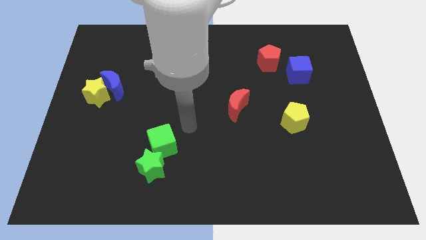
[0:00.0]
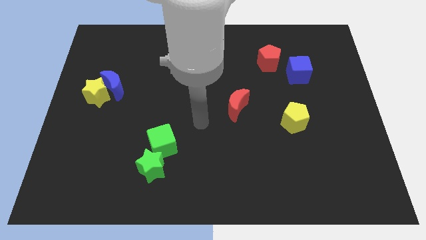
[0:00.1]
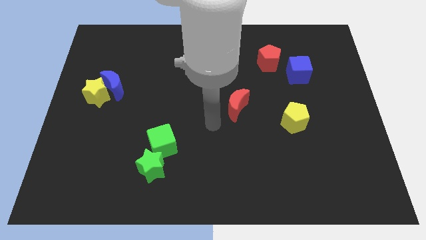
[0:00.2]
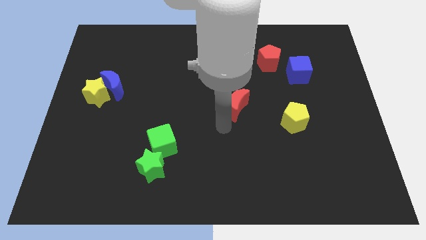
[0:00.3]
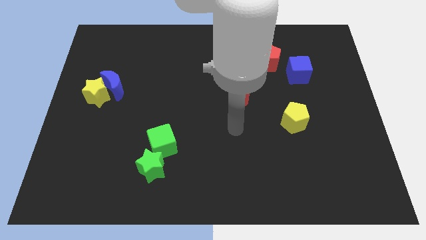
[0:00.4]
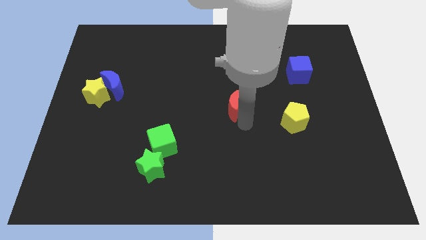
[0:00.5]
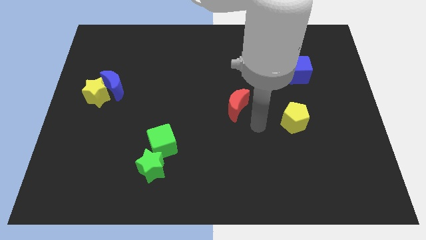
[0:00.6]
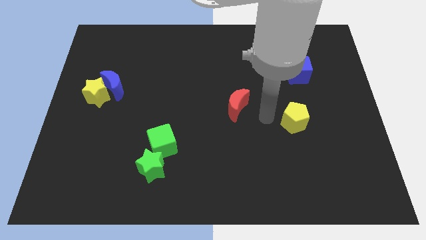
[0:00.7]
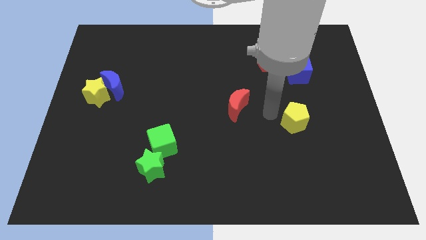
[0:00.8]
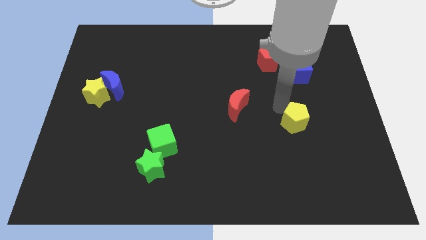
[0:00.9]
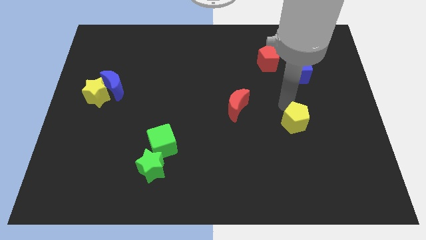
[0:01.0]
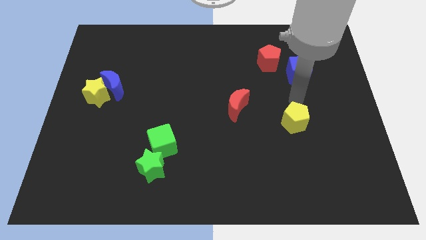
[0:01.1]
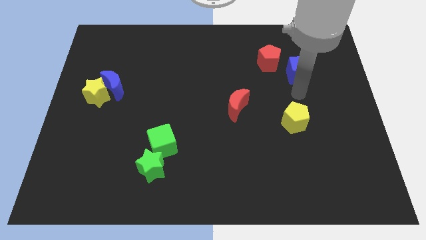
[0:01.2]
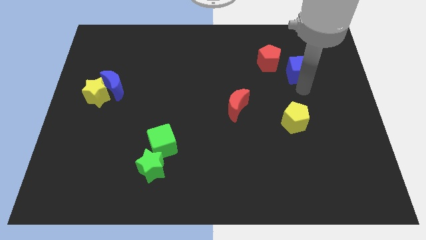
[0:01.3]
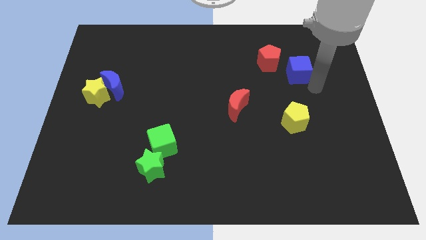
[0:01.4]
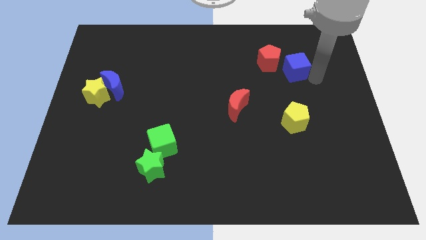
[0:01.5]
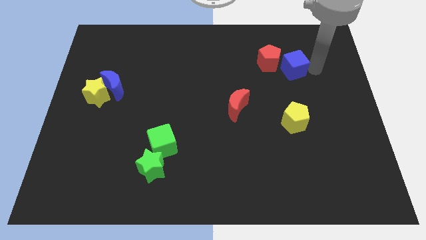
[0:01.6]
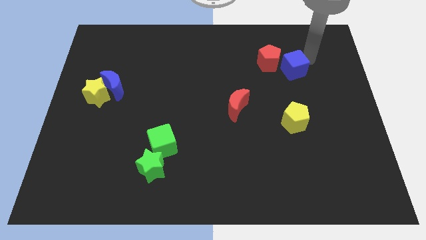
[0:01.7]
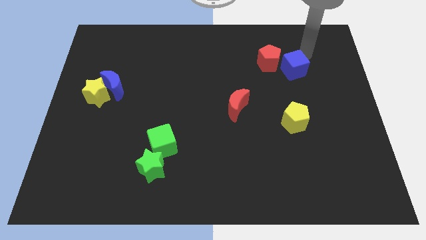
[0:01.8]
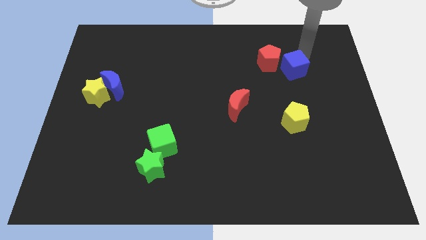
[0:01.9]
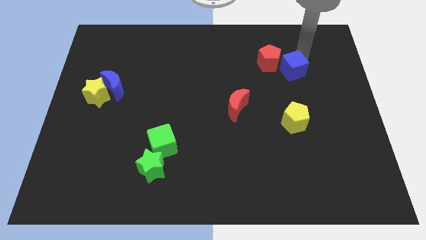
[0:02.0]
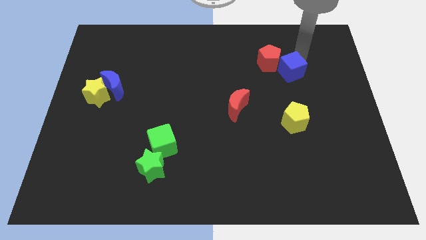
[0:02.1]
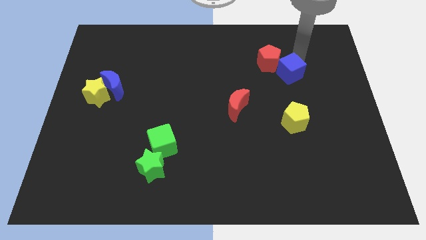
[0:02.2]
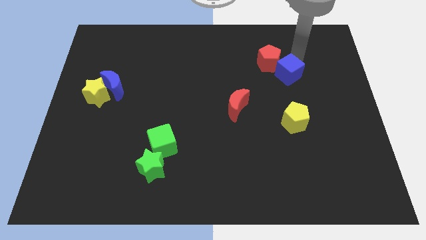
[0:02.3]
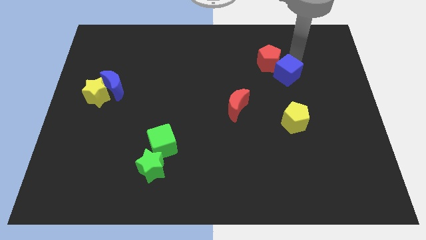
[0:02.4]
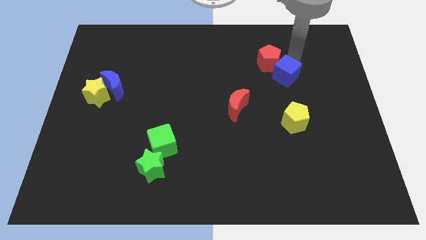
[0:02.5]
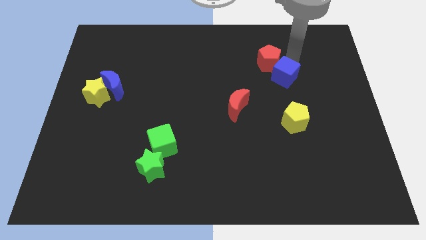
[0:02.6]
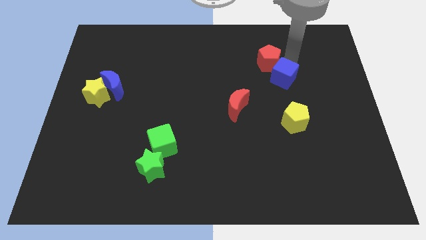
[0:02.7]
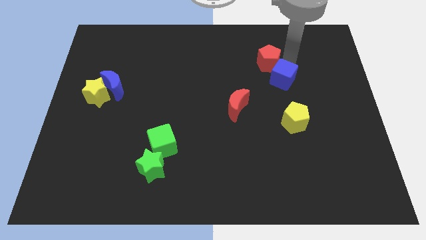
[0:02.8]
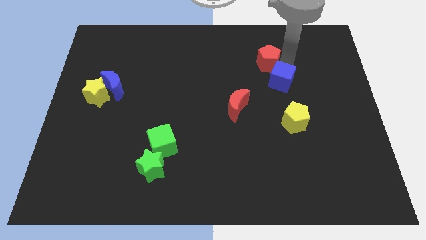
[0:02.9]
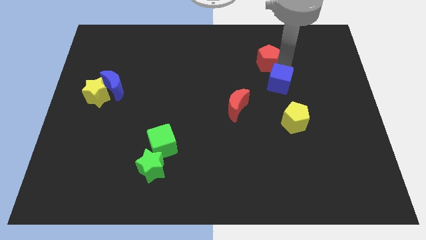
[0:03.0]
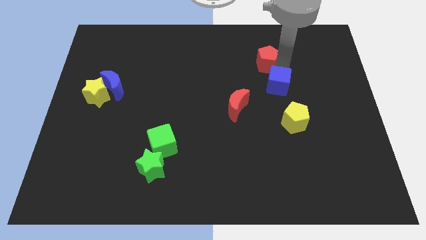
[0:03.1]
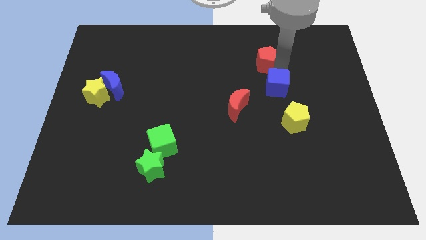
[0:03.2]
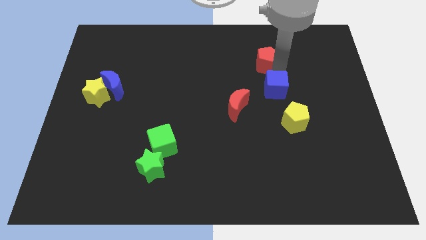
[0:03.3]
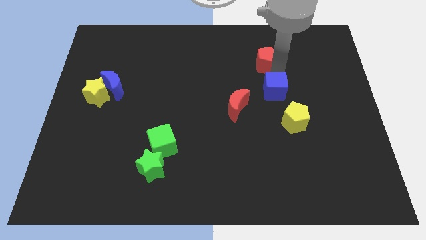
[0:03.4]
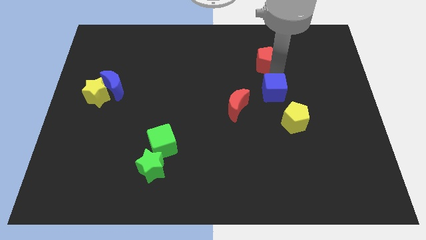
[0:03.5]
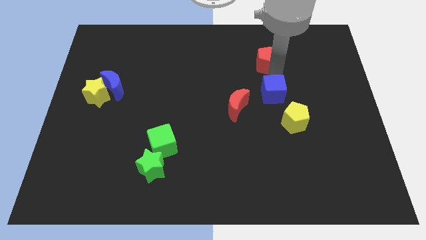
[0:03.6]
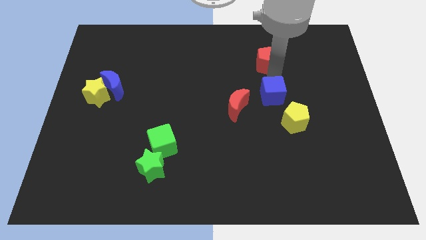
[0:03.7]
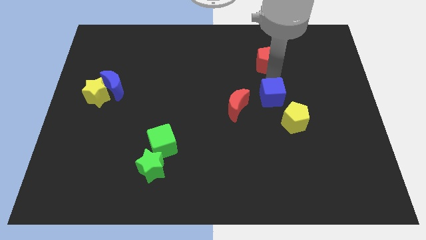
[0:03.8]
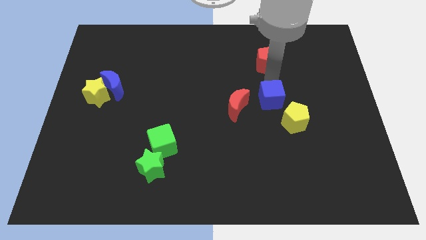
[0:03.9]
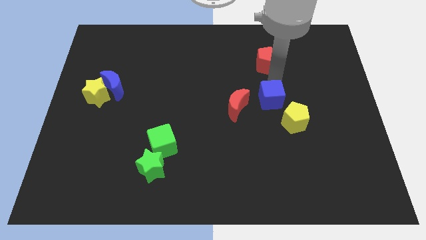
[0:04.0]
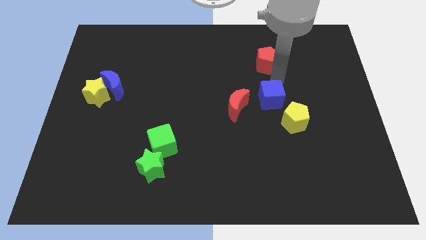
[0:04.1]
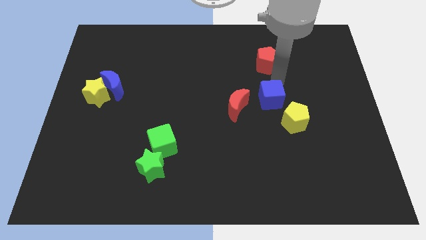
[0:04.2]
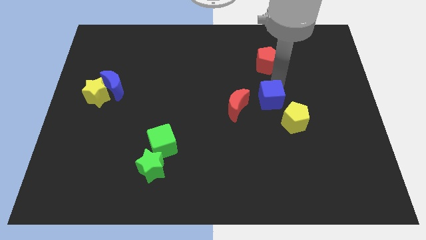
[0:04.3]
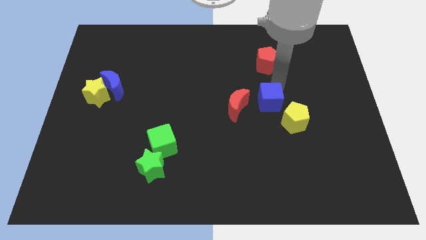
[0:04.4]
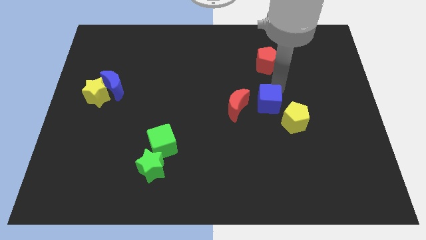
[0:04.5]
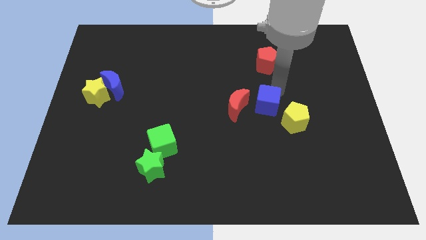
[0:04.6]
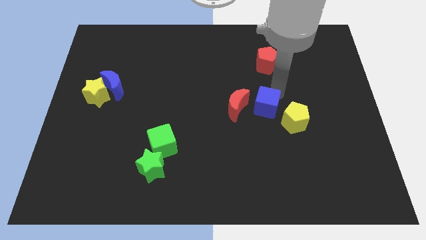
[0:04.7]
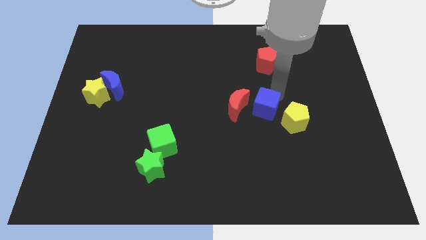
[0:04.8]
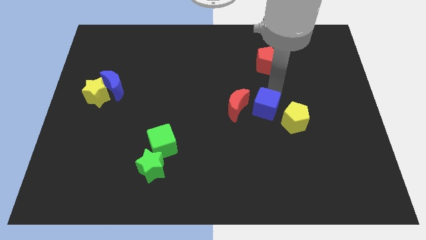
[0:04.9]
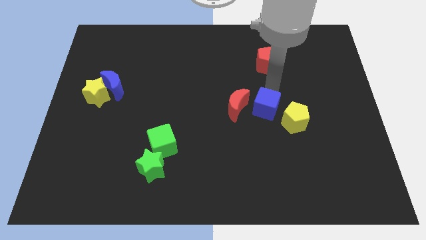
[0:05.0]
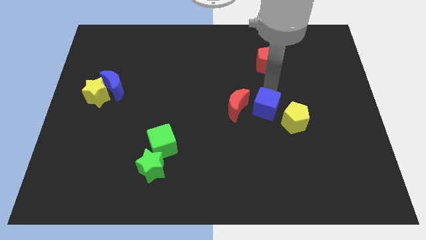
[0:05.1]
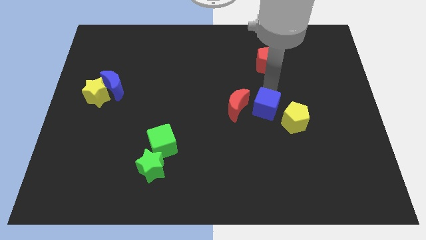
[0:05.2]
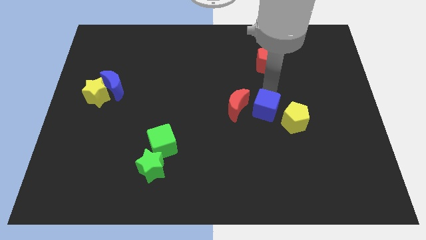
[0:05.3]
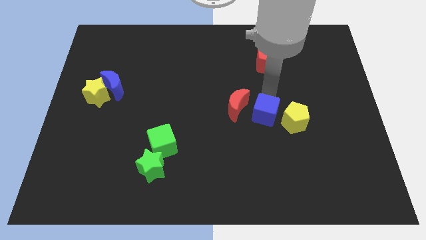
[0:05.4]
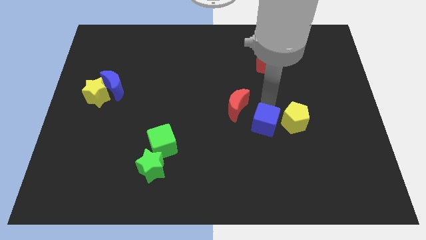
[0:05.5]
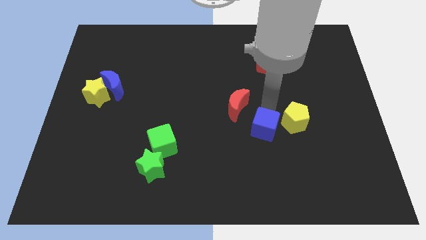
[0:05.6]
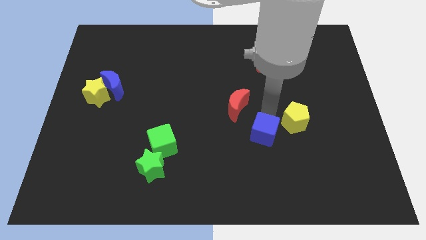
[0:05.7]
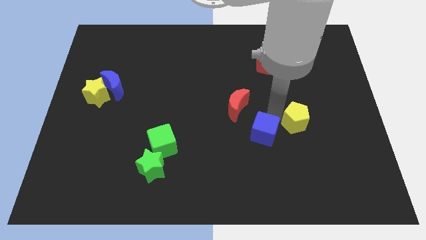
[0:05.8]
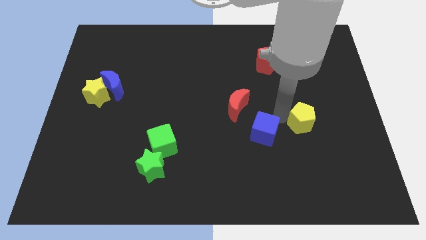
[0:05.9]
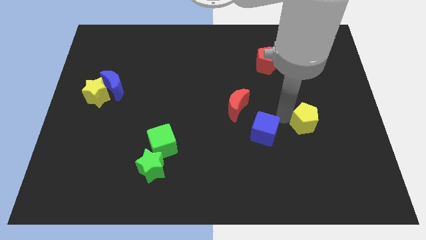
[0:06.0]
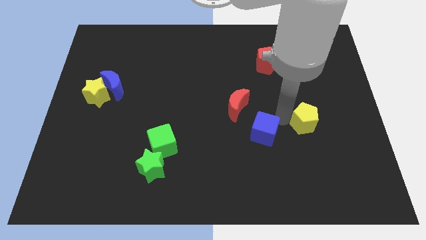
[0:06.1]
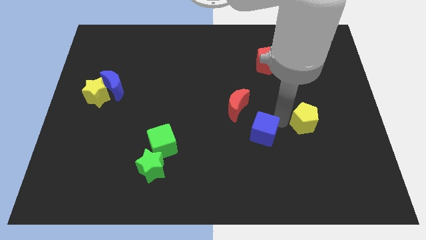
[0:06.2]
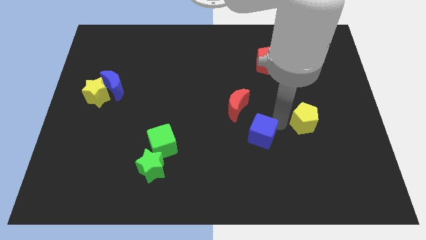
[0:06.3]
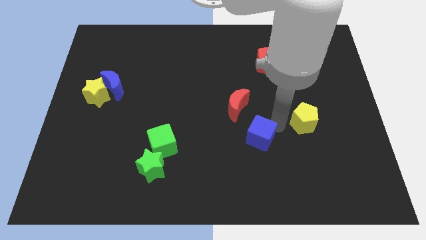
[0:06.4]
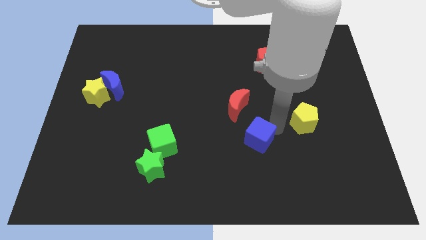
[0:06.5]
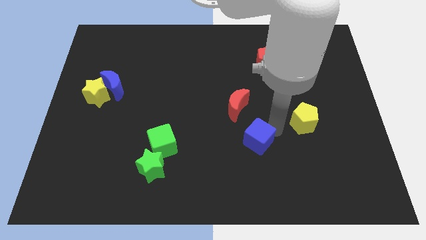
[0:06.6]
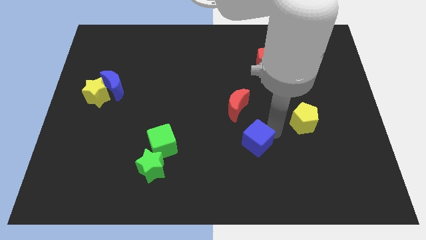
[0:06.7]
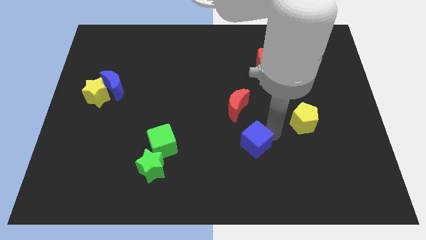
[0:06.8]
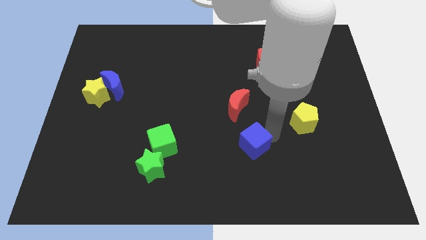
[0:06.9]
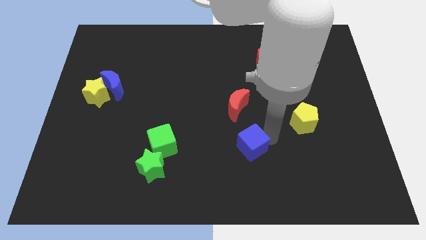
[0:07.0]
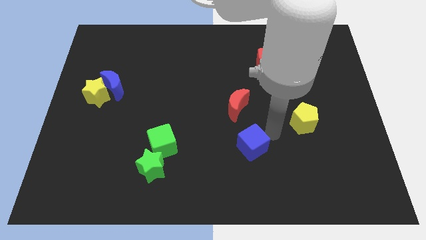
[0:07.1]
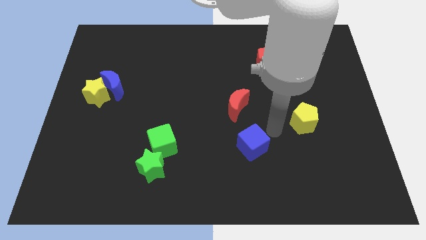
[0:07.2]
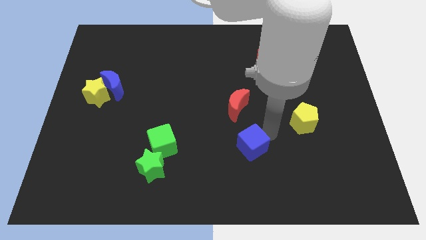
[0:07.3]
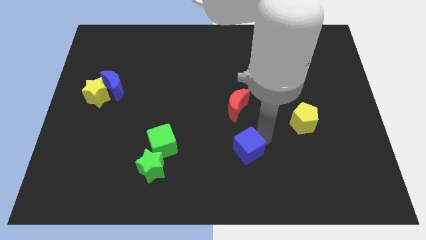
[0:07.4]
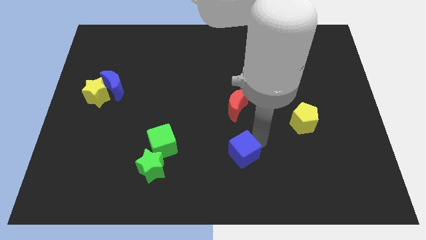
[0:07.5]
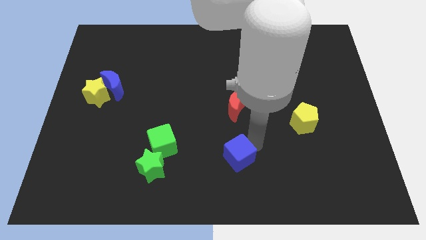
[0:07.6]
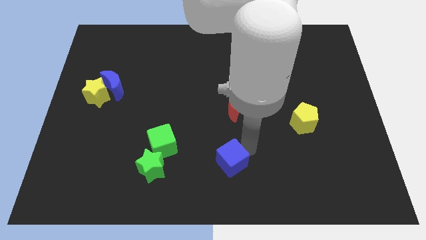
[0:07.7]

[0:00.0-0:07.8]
move the blue cube to the bottom side
